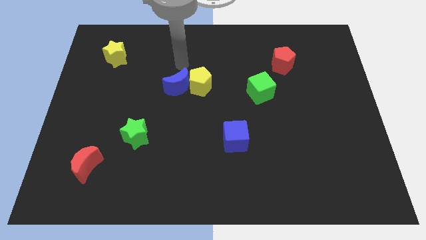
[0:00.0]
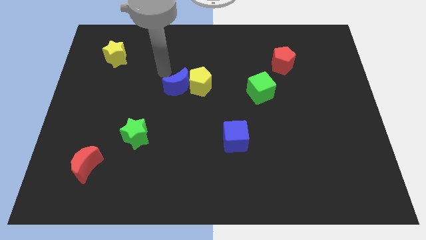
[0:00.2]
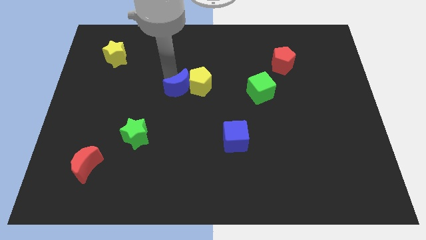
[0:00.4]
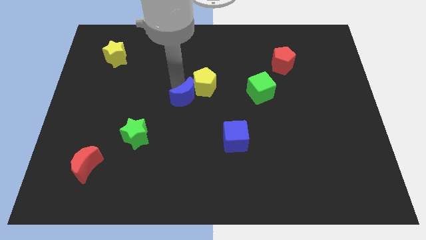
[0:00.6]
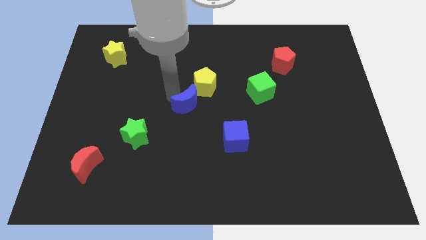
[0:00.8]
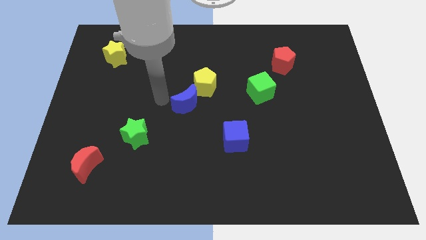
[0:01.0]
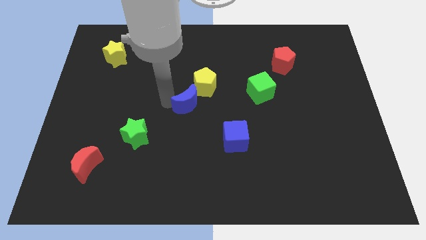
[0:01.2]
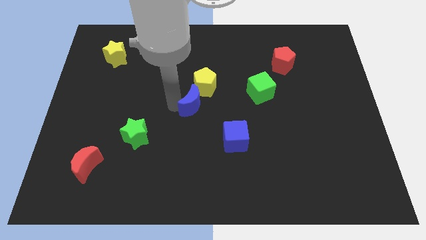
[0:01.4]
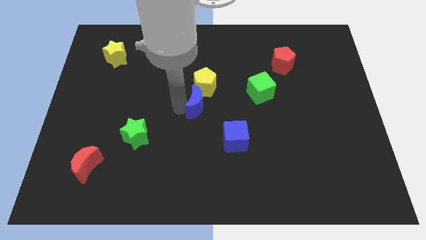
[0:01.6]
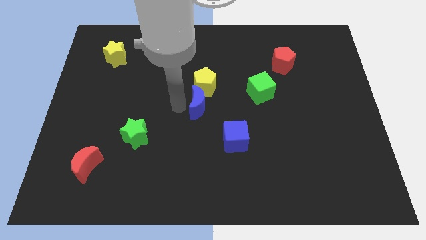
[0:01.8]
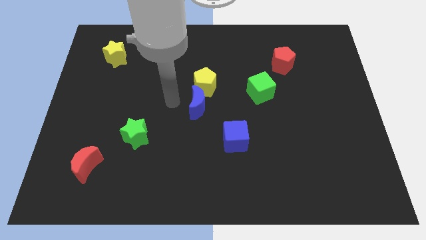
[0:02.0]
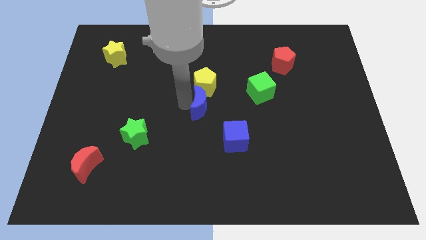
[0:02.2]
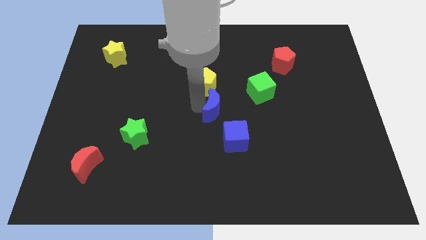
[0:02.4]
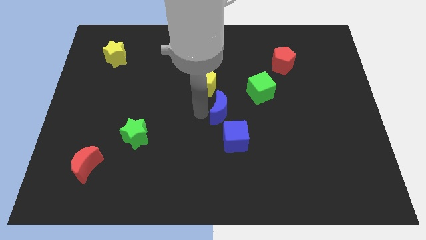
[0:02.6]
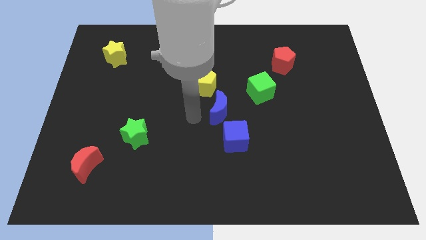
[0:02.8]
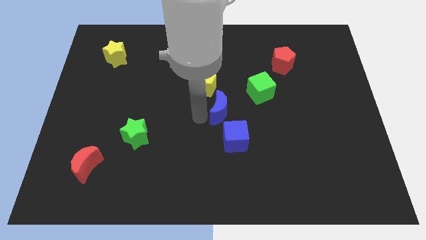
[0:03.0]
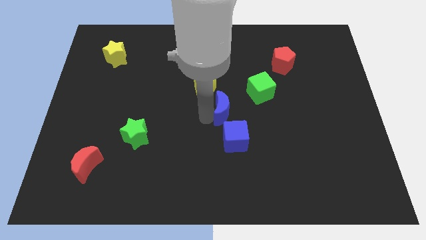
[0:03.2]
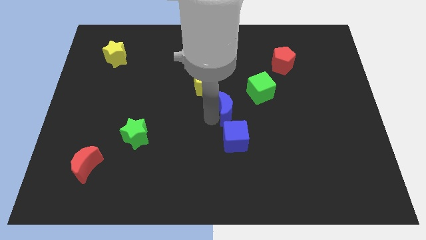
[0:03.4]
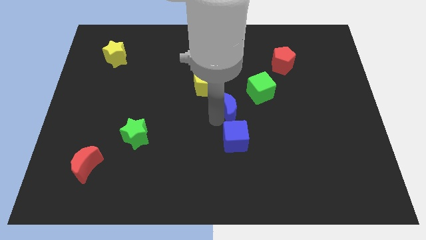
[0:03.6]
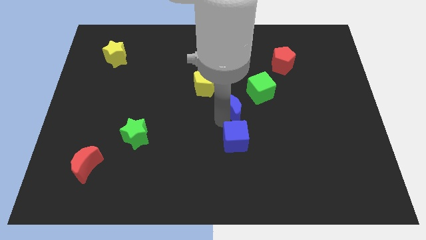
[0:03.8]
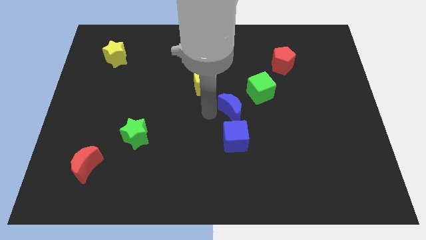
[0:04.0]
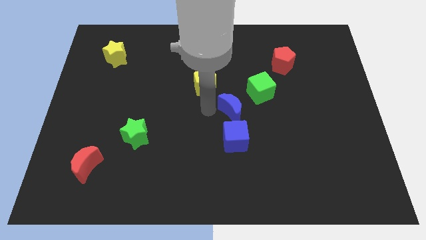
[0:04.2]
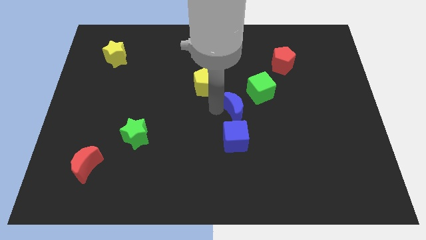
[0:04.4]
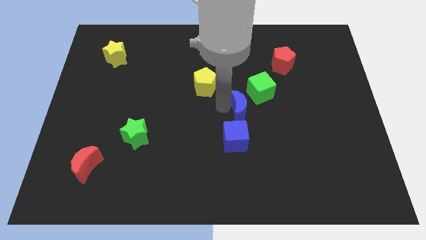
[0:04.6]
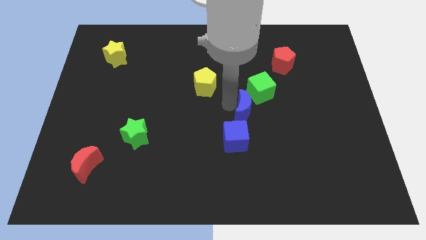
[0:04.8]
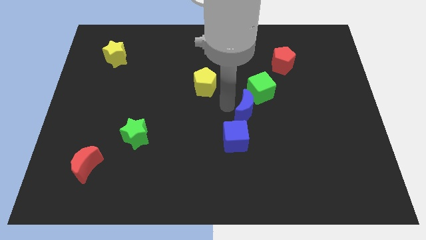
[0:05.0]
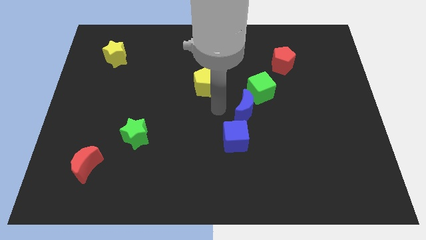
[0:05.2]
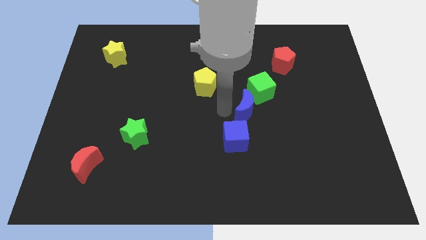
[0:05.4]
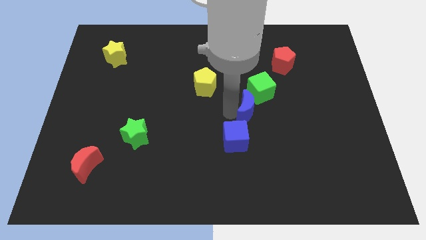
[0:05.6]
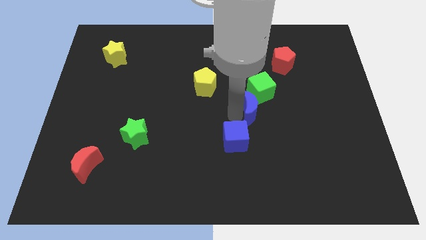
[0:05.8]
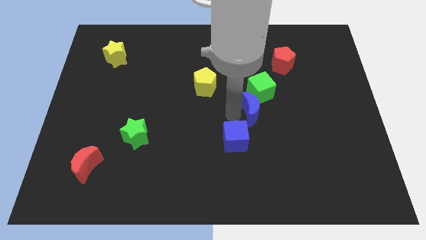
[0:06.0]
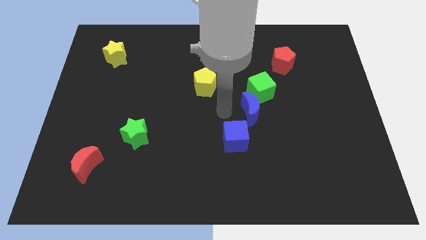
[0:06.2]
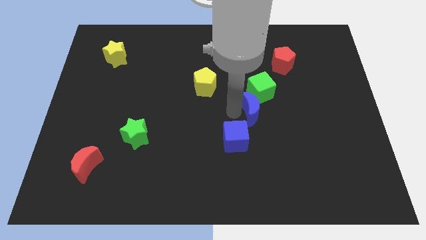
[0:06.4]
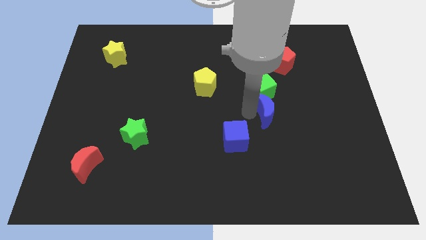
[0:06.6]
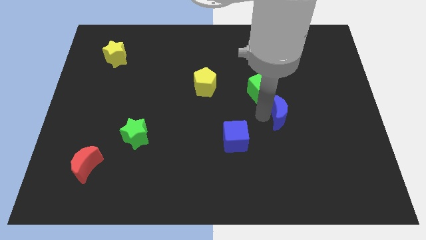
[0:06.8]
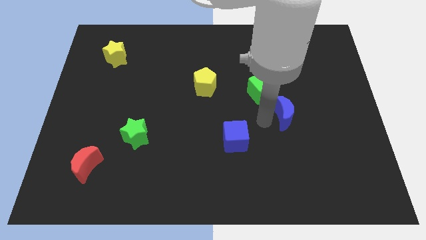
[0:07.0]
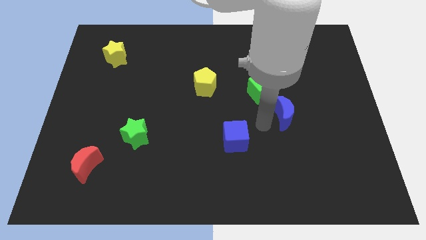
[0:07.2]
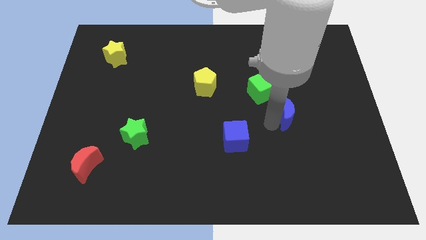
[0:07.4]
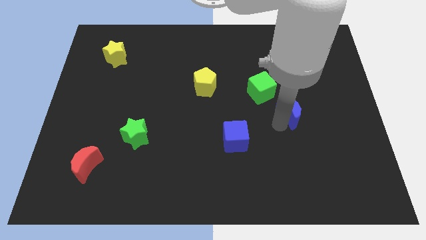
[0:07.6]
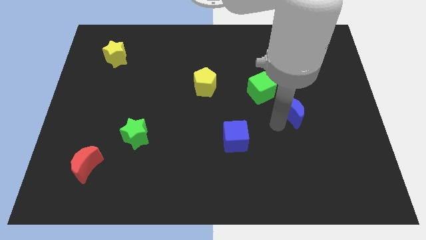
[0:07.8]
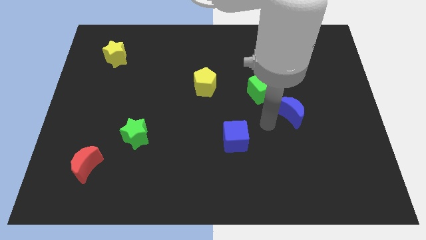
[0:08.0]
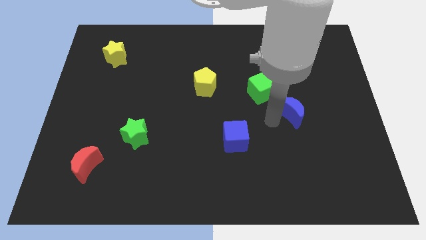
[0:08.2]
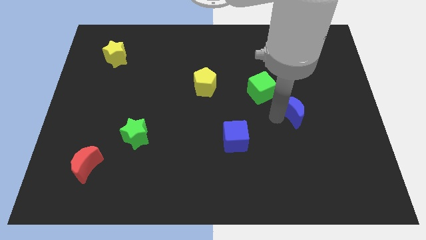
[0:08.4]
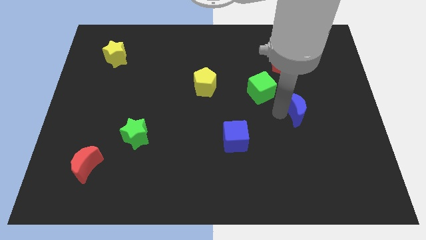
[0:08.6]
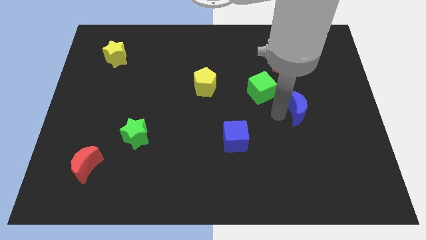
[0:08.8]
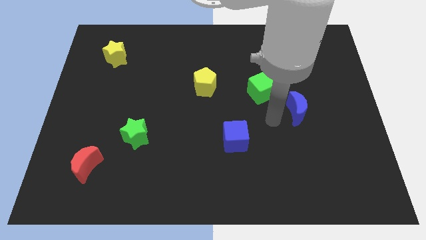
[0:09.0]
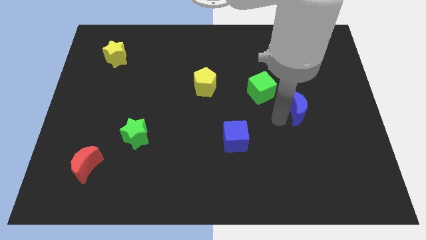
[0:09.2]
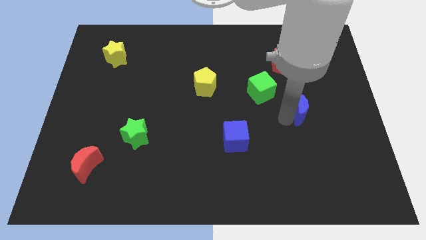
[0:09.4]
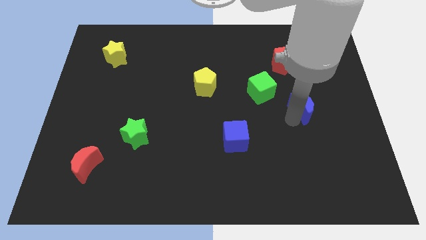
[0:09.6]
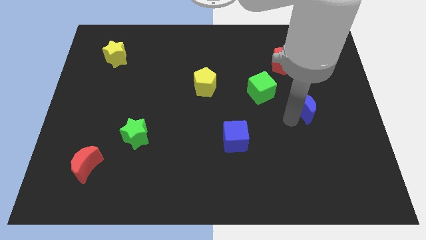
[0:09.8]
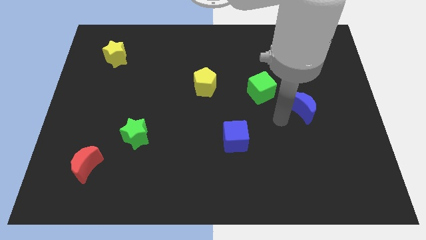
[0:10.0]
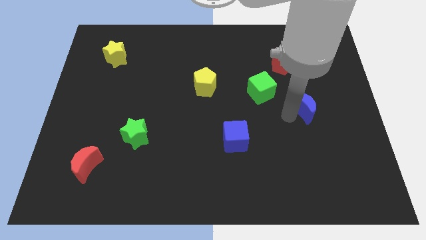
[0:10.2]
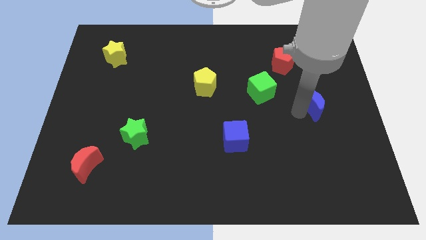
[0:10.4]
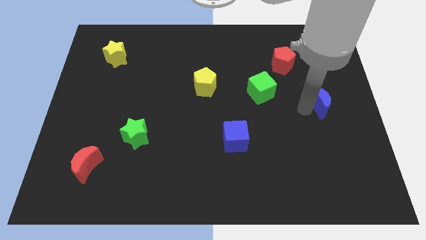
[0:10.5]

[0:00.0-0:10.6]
move the blue moon to the right side of the board

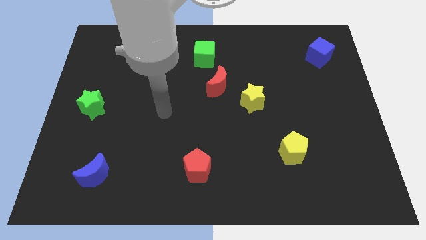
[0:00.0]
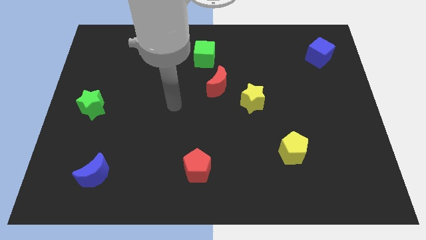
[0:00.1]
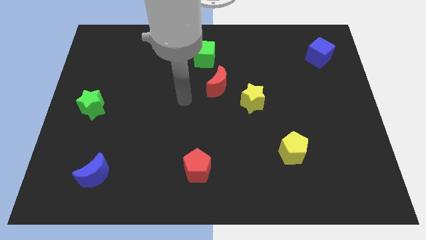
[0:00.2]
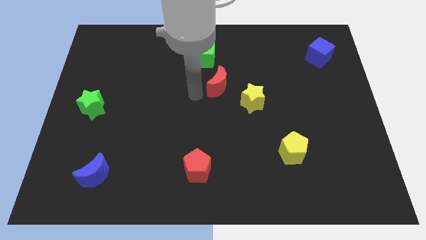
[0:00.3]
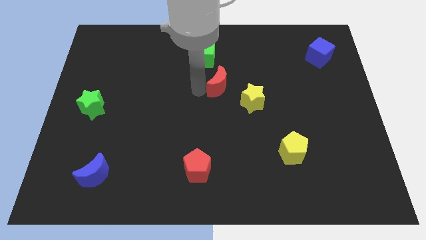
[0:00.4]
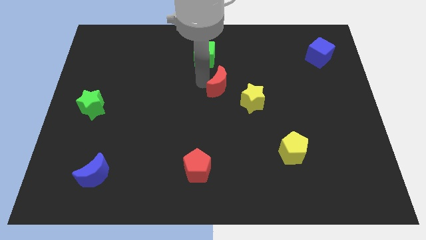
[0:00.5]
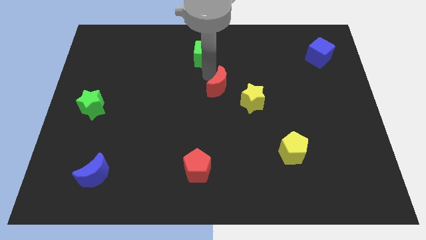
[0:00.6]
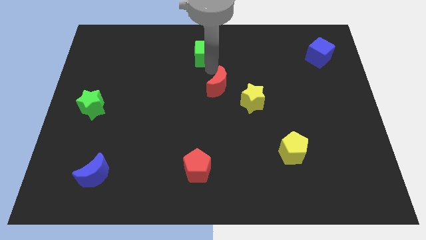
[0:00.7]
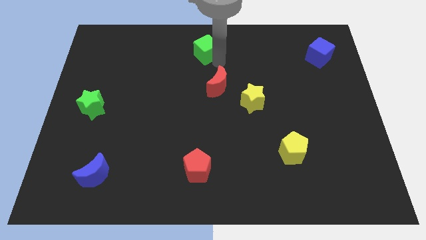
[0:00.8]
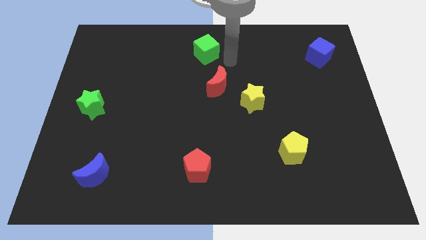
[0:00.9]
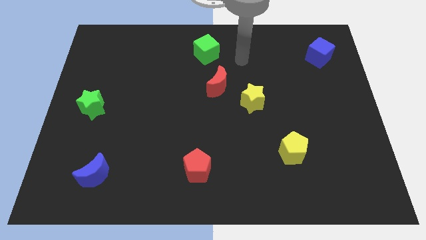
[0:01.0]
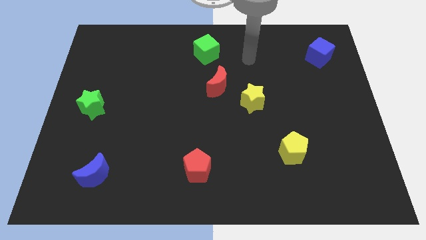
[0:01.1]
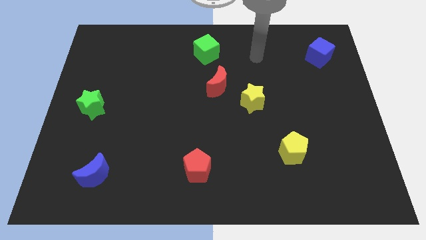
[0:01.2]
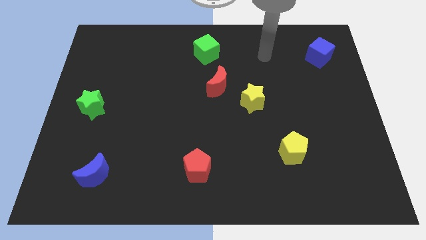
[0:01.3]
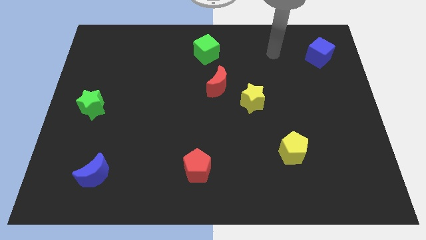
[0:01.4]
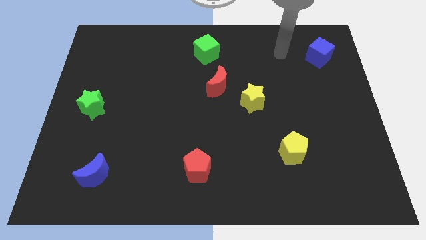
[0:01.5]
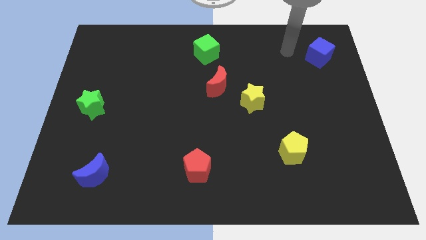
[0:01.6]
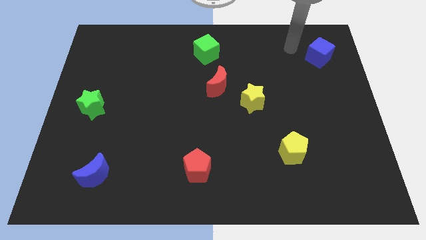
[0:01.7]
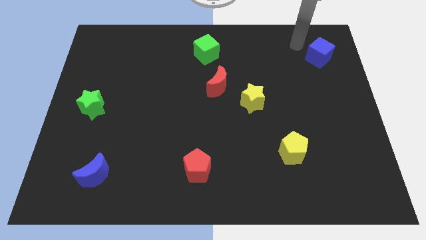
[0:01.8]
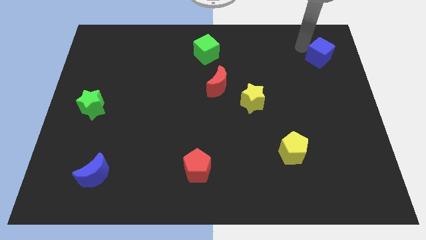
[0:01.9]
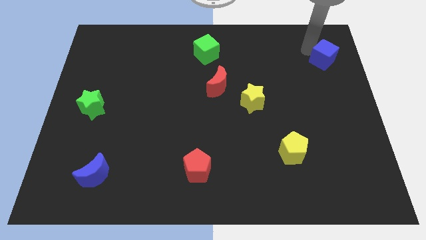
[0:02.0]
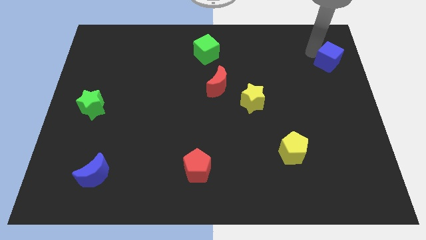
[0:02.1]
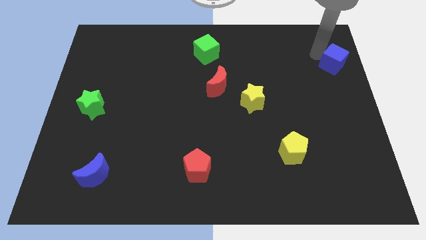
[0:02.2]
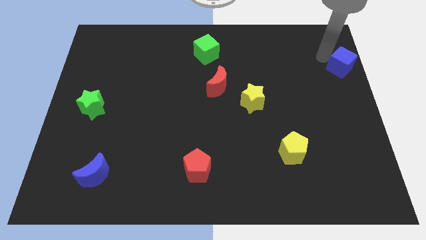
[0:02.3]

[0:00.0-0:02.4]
push the blue cube to the right side of the board
